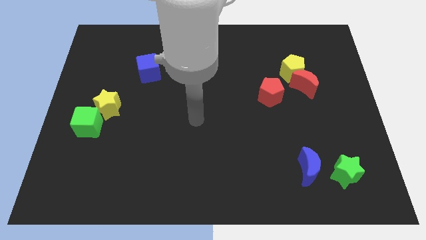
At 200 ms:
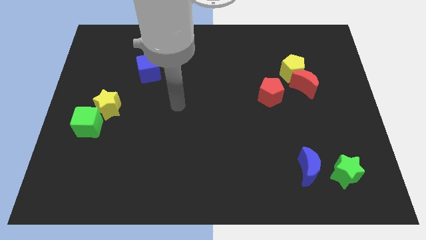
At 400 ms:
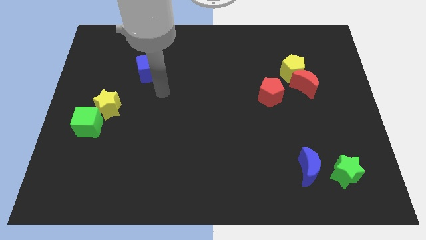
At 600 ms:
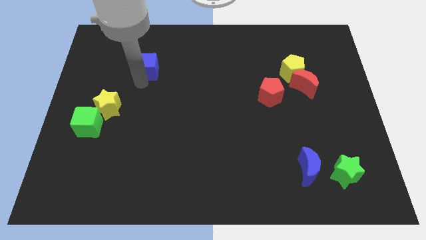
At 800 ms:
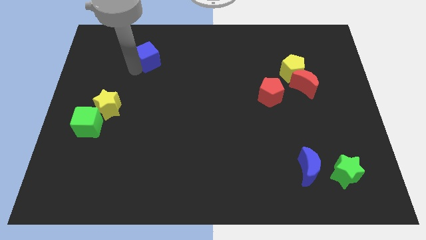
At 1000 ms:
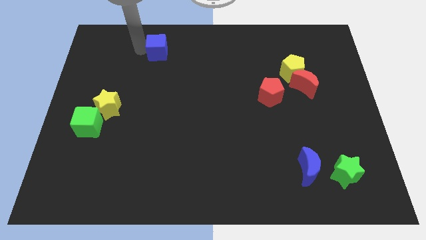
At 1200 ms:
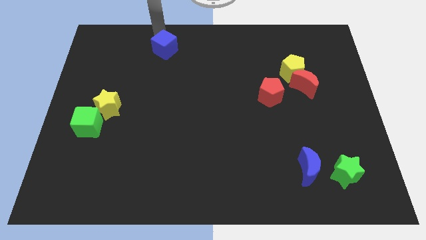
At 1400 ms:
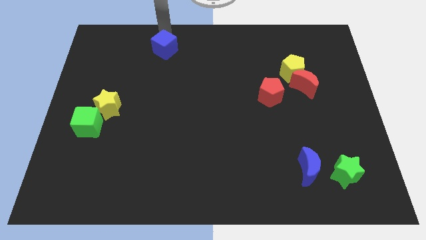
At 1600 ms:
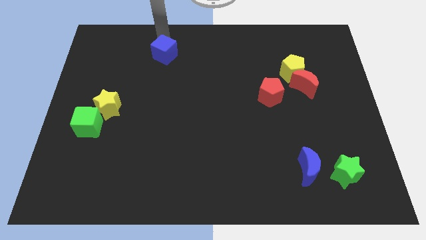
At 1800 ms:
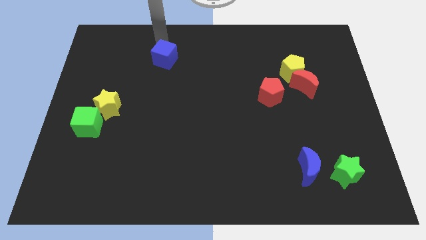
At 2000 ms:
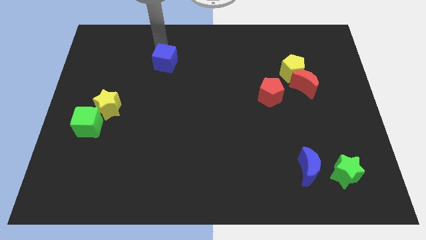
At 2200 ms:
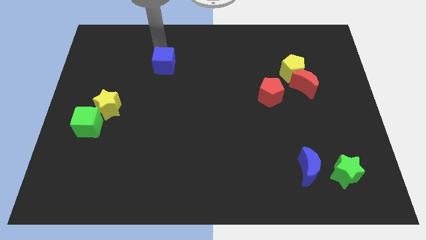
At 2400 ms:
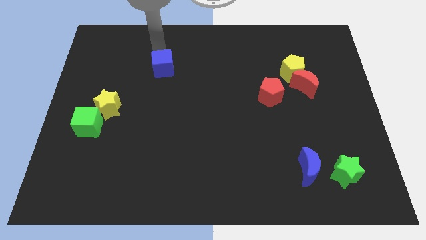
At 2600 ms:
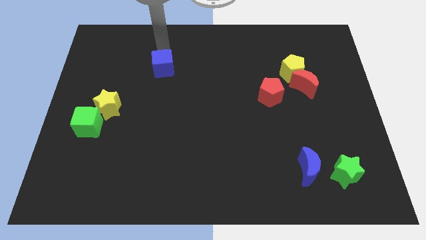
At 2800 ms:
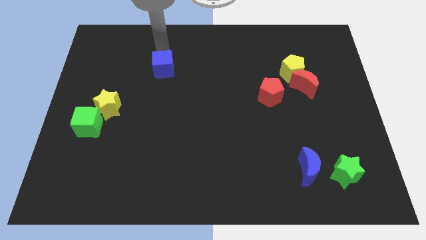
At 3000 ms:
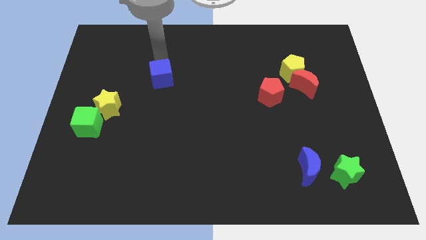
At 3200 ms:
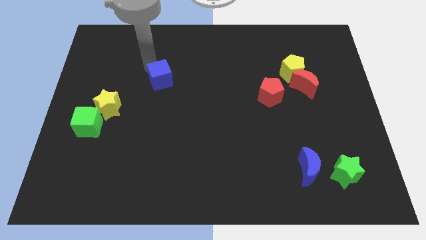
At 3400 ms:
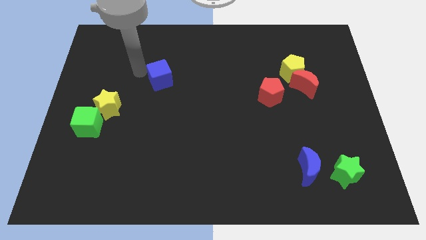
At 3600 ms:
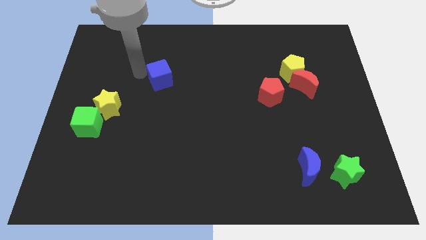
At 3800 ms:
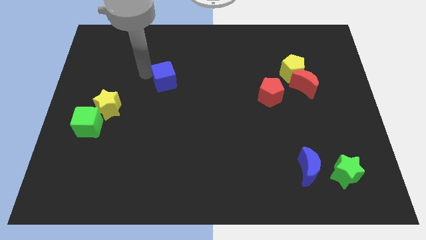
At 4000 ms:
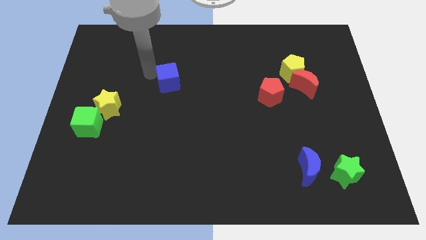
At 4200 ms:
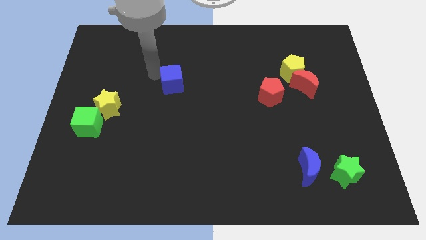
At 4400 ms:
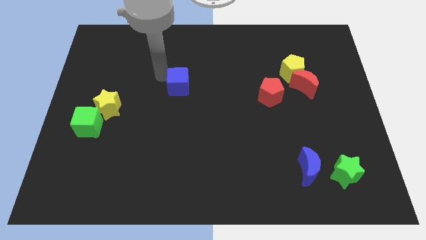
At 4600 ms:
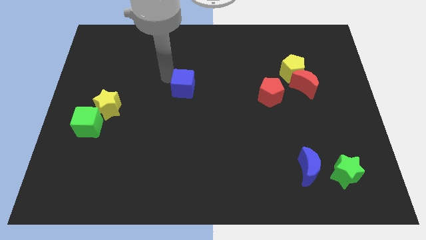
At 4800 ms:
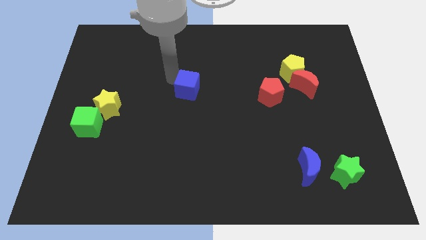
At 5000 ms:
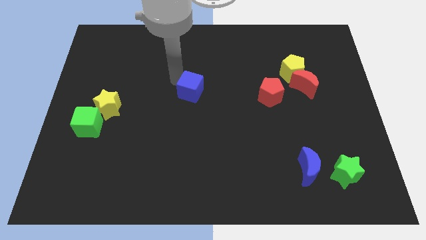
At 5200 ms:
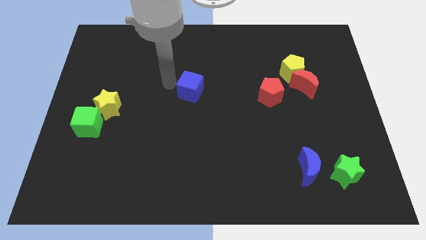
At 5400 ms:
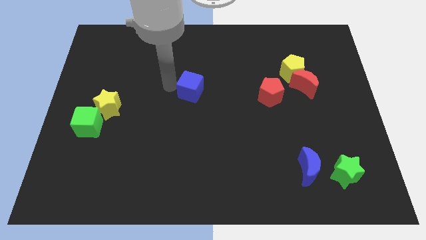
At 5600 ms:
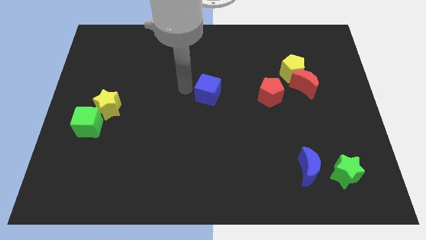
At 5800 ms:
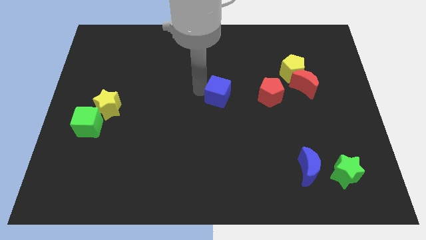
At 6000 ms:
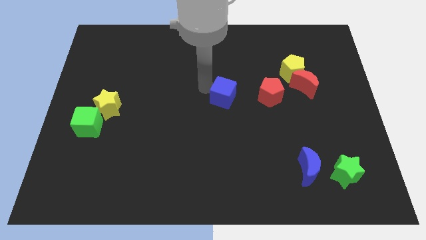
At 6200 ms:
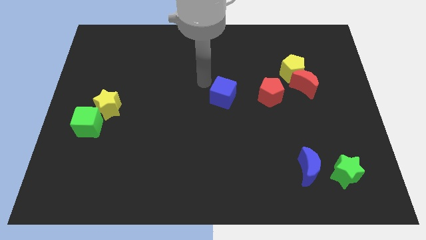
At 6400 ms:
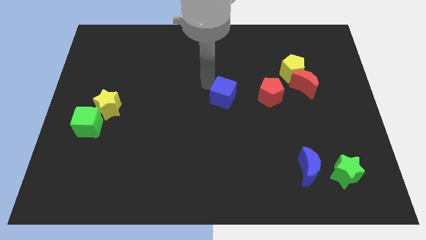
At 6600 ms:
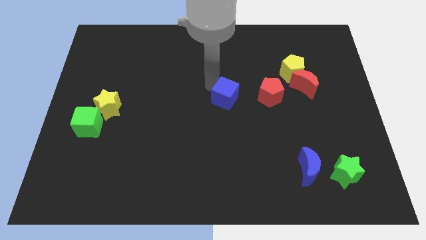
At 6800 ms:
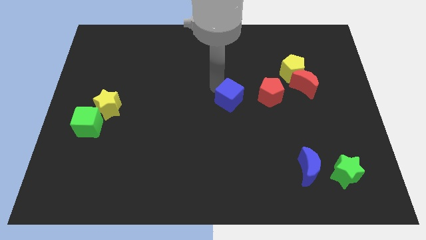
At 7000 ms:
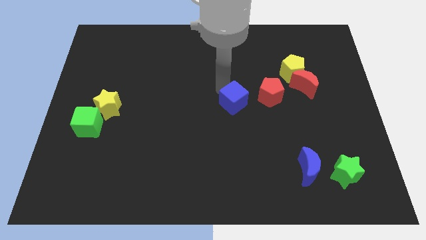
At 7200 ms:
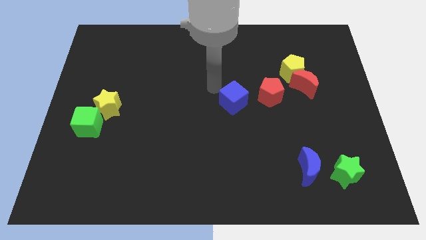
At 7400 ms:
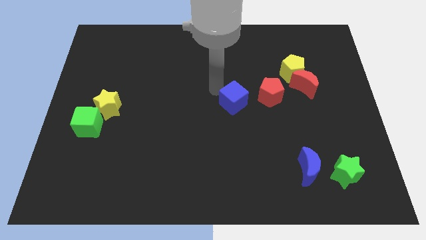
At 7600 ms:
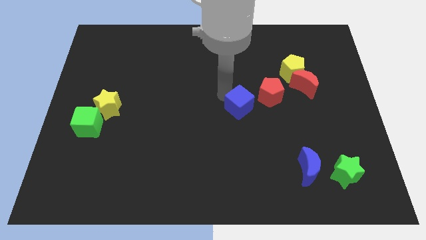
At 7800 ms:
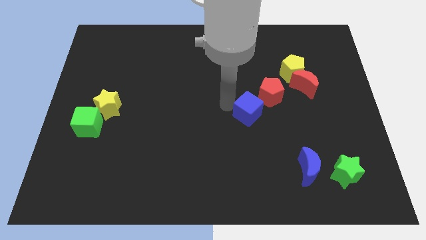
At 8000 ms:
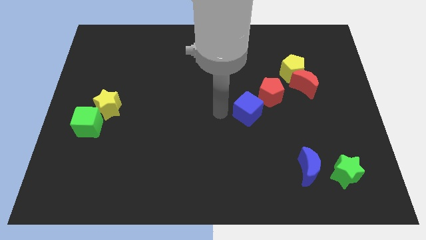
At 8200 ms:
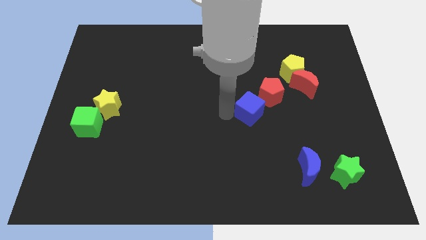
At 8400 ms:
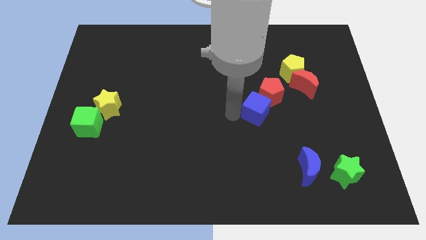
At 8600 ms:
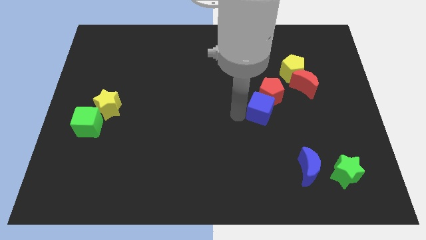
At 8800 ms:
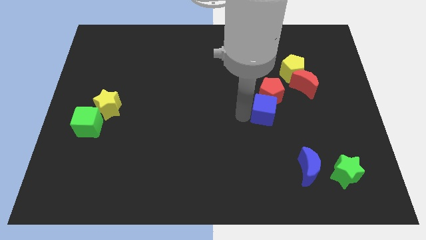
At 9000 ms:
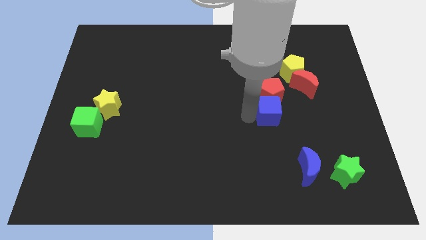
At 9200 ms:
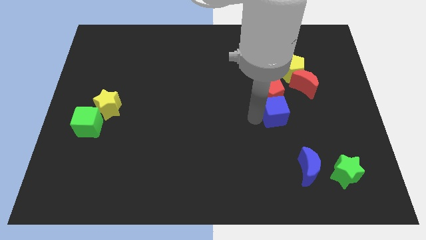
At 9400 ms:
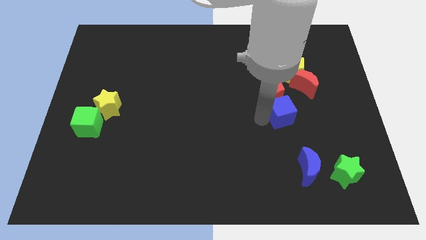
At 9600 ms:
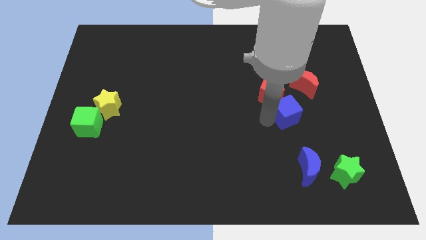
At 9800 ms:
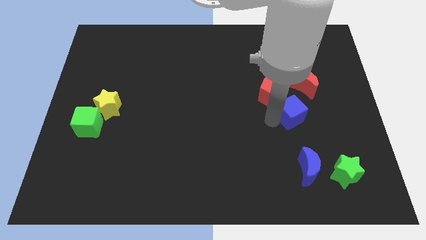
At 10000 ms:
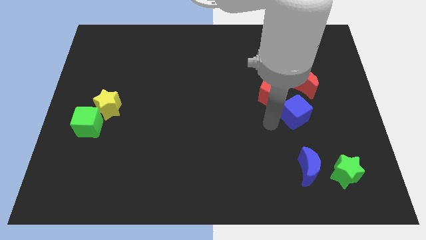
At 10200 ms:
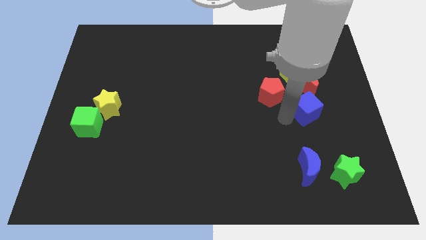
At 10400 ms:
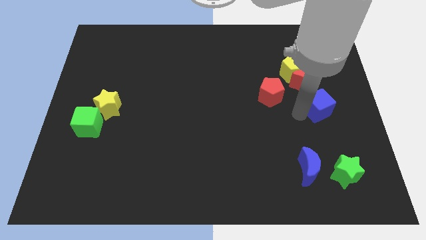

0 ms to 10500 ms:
slide the blue cube to the bottom right of the red moon

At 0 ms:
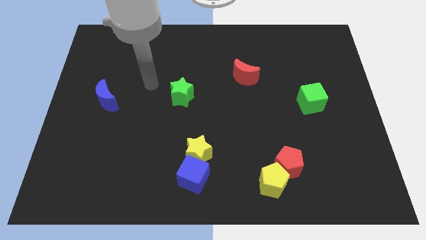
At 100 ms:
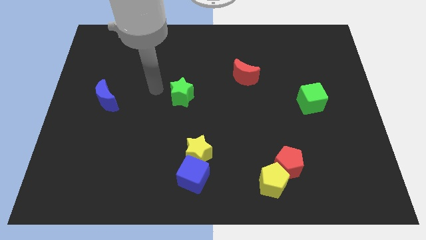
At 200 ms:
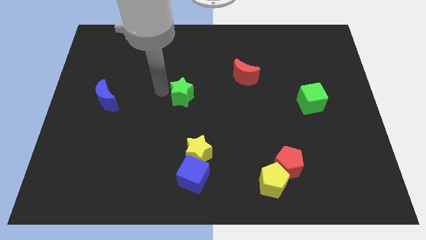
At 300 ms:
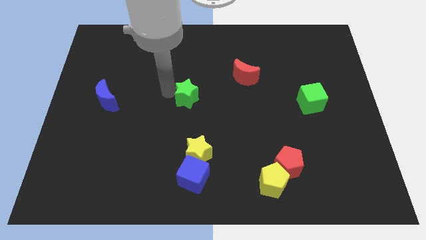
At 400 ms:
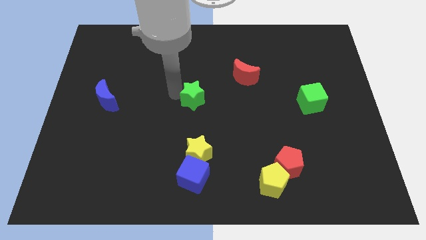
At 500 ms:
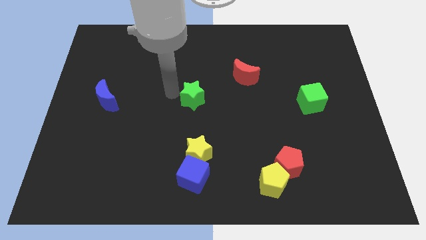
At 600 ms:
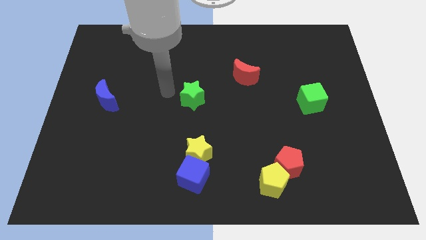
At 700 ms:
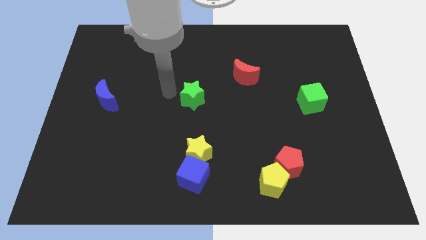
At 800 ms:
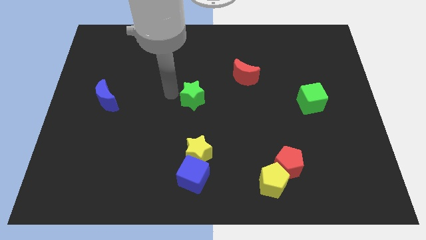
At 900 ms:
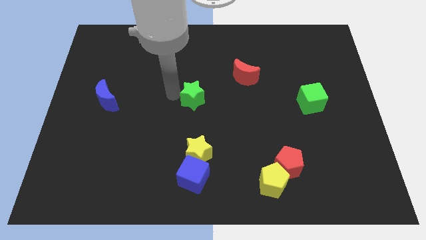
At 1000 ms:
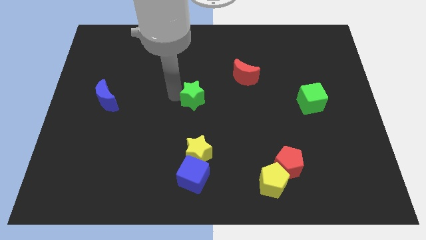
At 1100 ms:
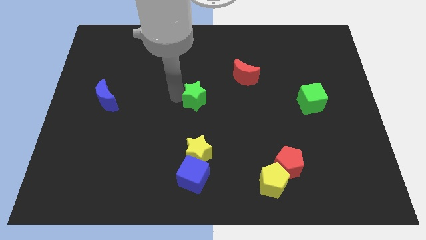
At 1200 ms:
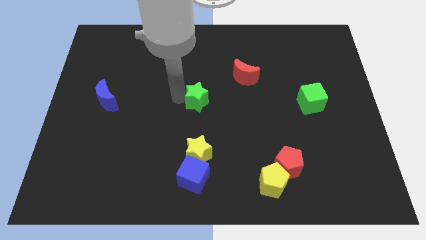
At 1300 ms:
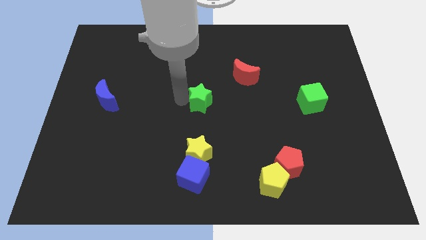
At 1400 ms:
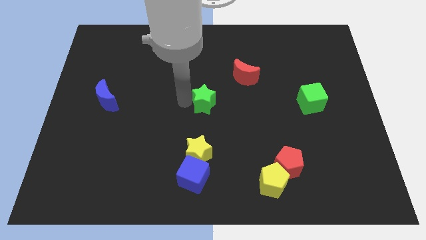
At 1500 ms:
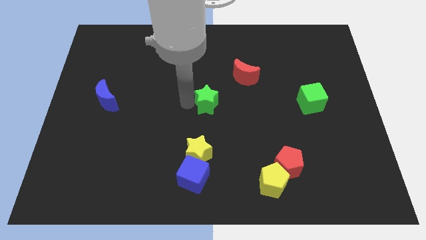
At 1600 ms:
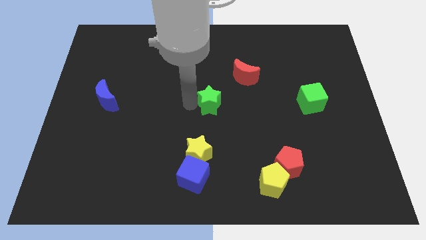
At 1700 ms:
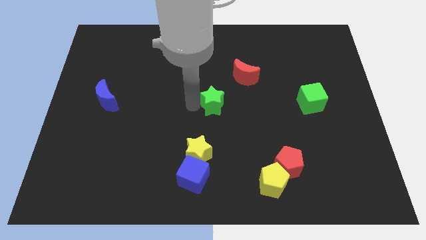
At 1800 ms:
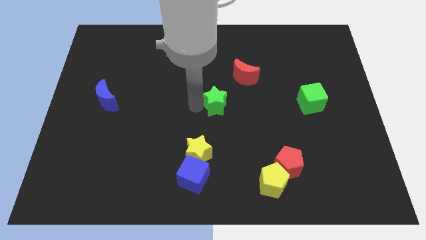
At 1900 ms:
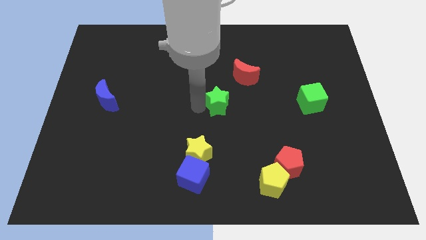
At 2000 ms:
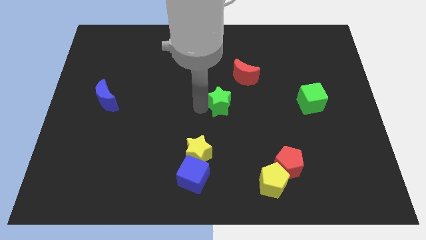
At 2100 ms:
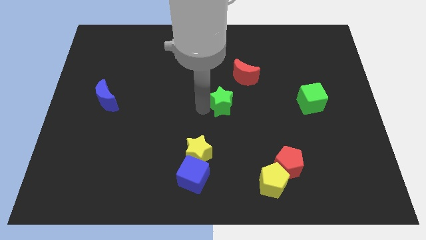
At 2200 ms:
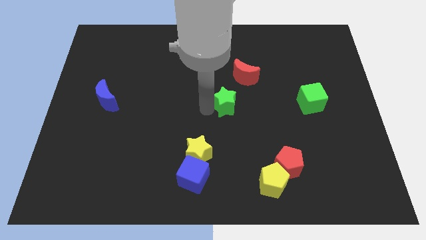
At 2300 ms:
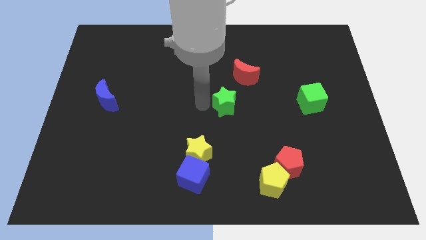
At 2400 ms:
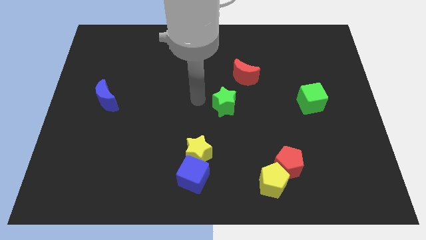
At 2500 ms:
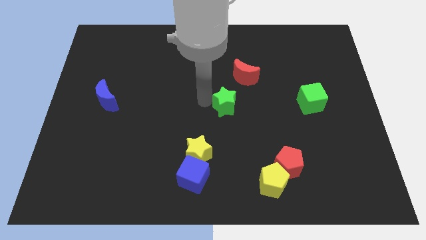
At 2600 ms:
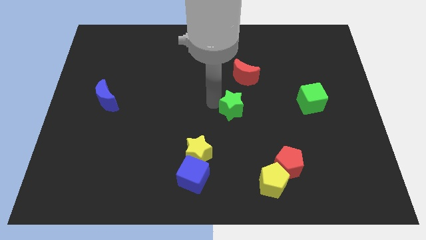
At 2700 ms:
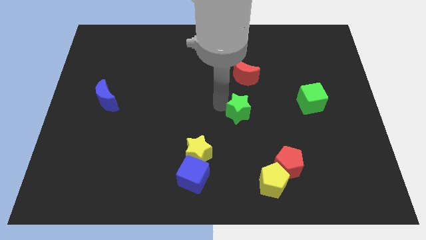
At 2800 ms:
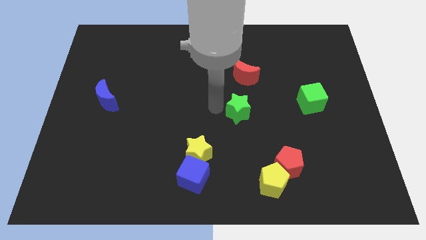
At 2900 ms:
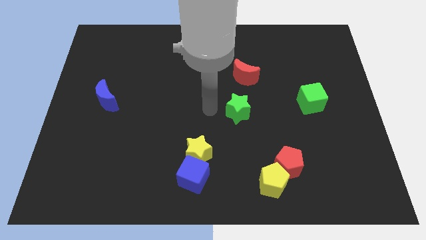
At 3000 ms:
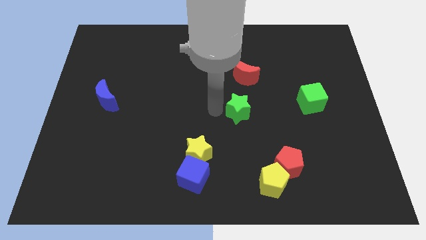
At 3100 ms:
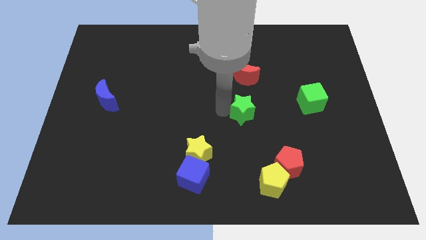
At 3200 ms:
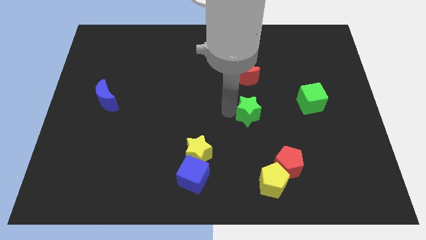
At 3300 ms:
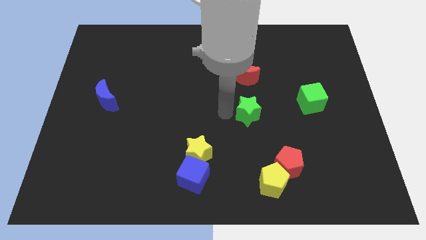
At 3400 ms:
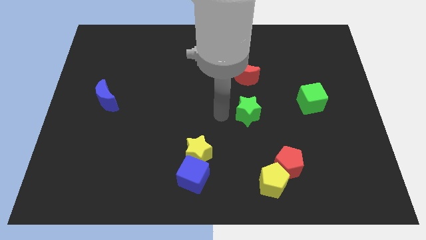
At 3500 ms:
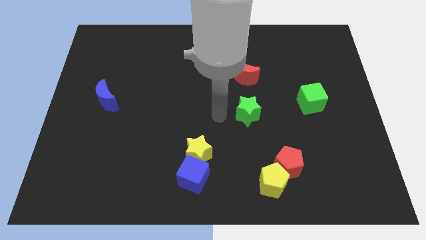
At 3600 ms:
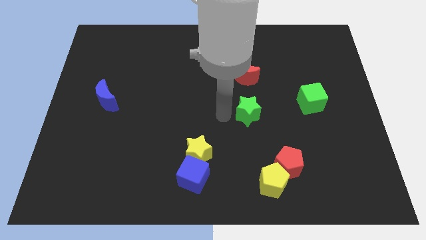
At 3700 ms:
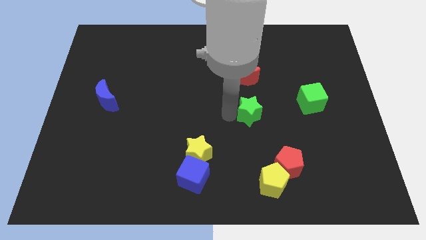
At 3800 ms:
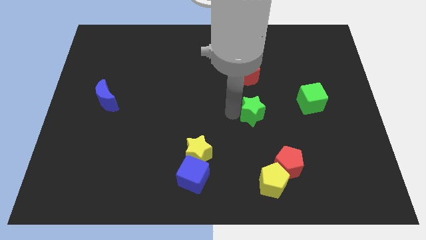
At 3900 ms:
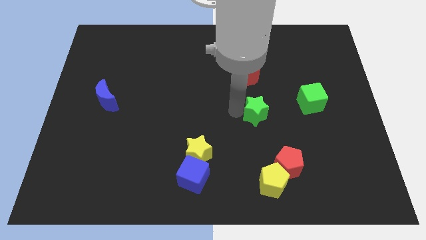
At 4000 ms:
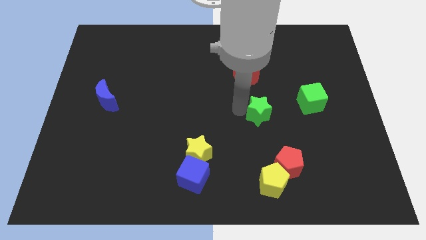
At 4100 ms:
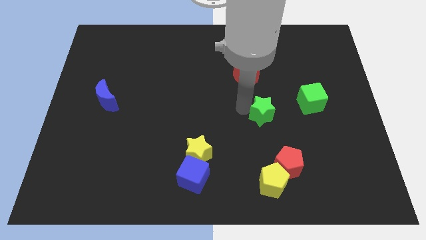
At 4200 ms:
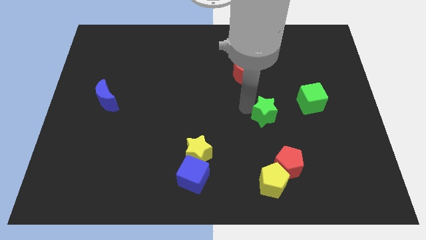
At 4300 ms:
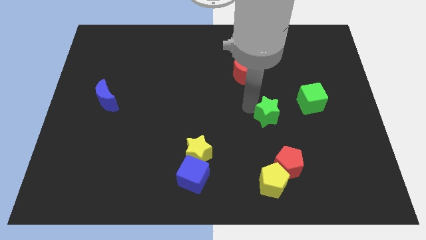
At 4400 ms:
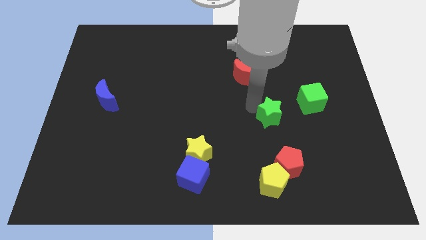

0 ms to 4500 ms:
move the green star to the bottom left side of the green cube
